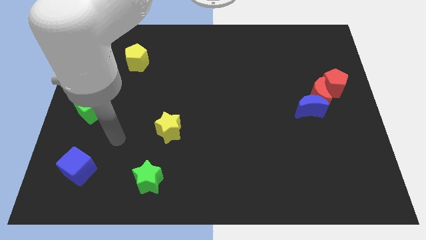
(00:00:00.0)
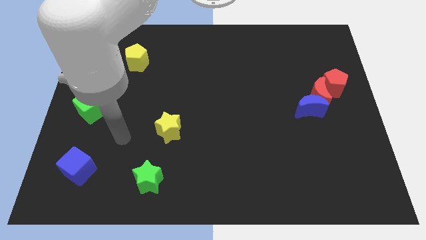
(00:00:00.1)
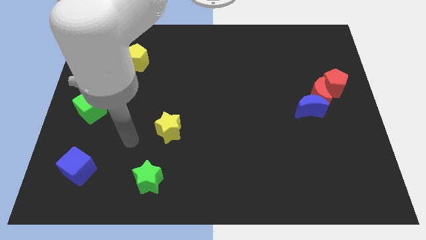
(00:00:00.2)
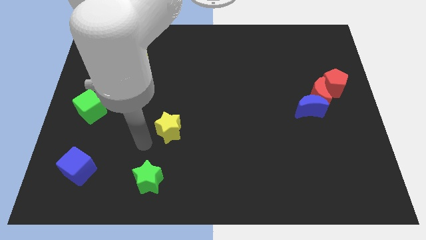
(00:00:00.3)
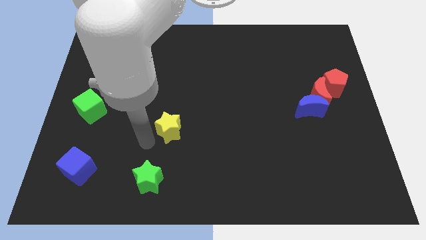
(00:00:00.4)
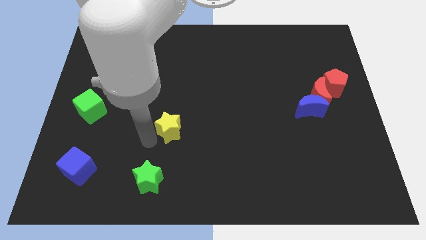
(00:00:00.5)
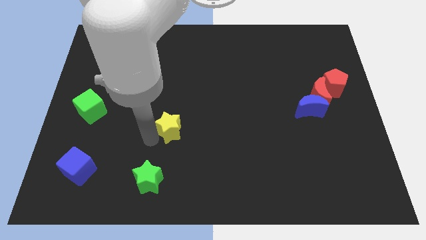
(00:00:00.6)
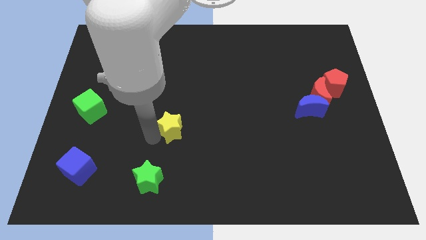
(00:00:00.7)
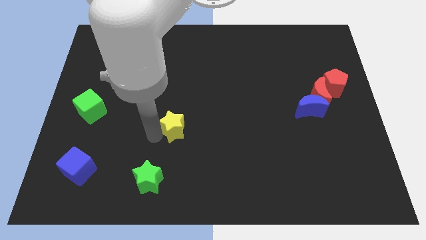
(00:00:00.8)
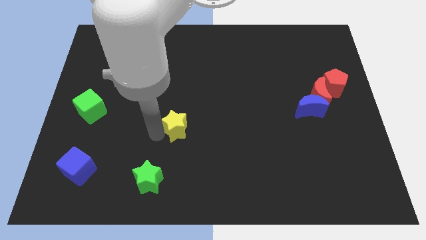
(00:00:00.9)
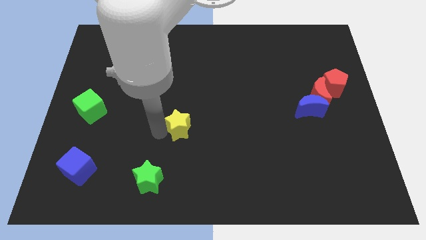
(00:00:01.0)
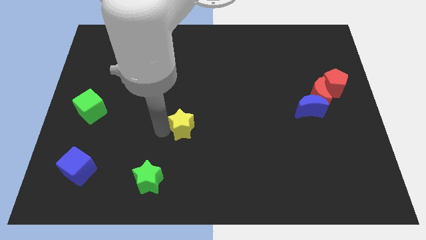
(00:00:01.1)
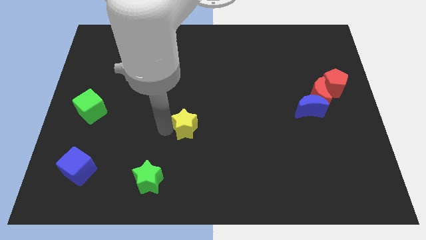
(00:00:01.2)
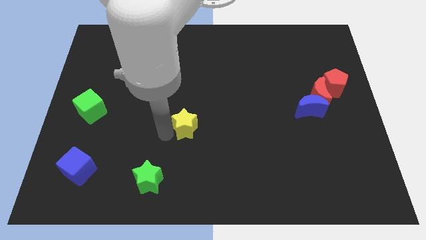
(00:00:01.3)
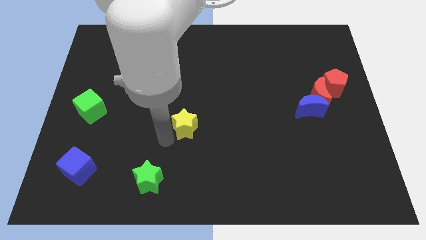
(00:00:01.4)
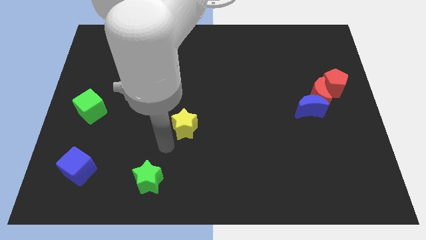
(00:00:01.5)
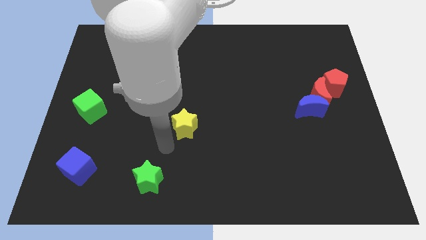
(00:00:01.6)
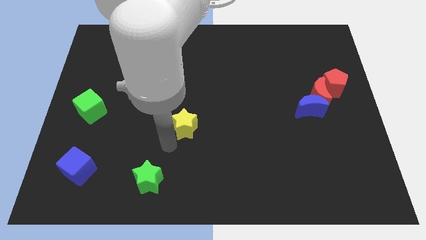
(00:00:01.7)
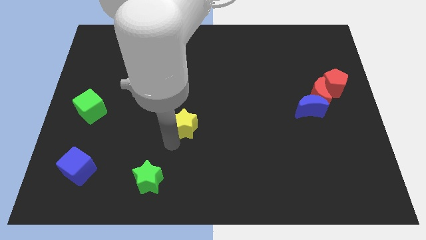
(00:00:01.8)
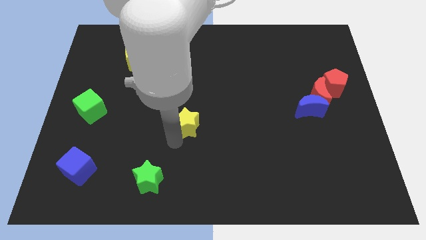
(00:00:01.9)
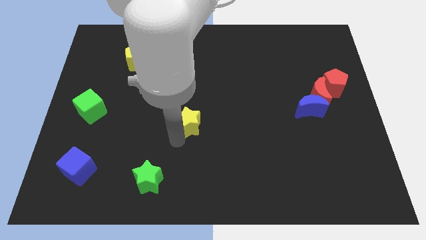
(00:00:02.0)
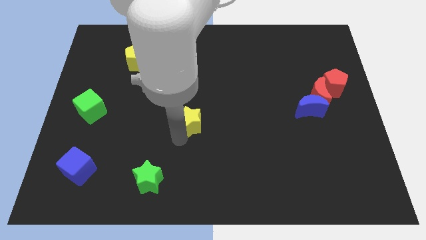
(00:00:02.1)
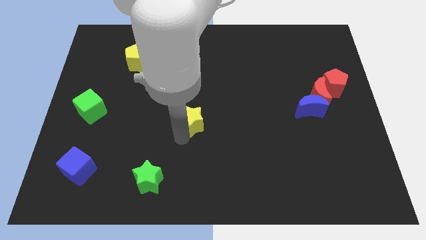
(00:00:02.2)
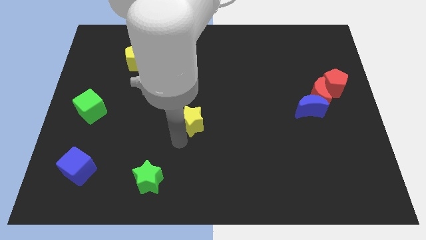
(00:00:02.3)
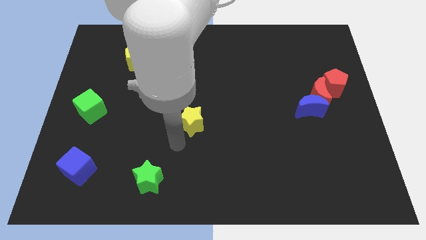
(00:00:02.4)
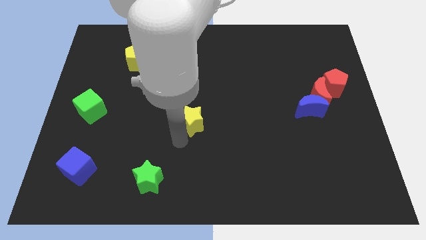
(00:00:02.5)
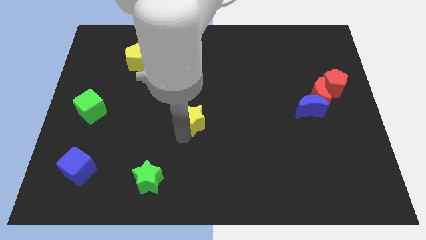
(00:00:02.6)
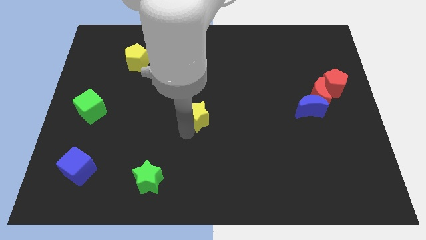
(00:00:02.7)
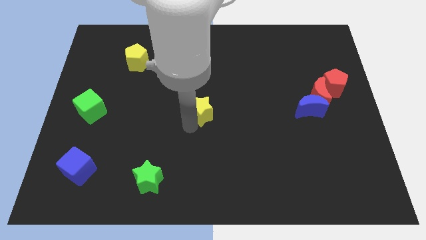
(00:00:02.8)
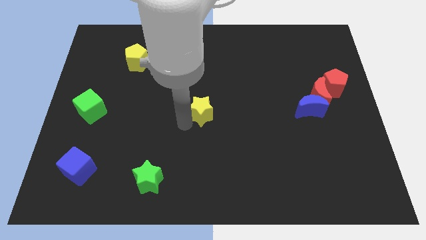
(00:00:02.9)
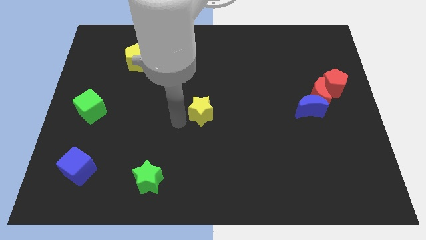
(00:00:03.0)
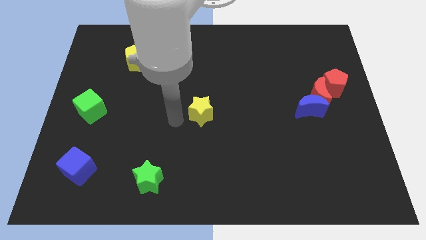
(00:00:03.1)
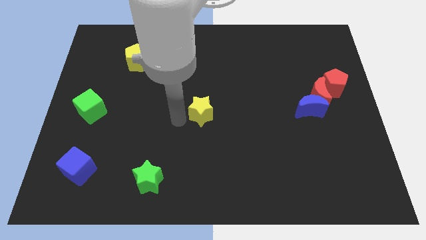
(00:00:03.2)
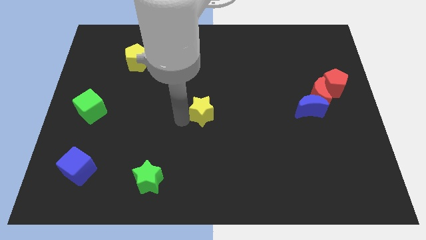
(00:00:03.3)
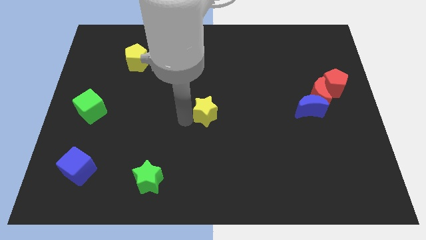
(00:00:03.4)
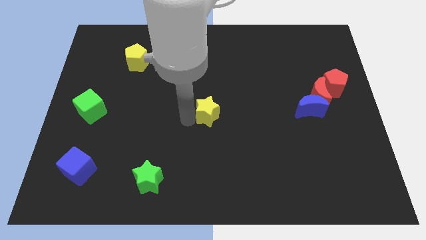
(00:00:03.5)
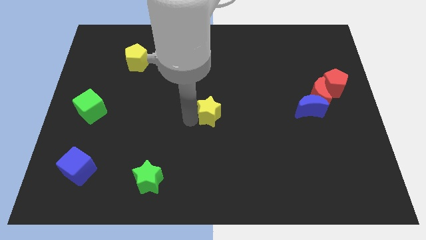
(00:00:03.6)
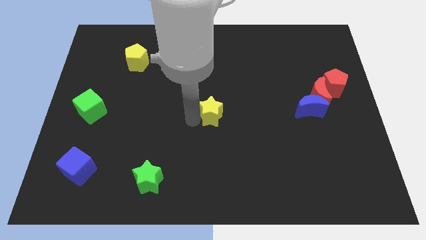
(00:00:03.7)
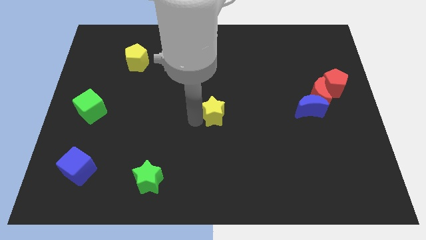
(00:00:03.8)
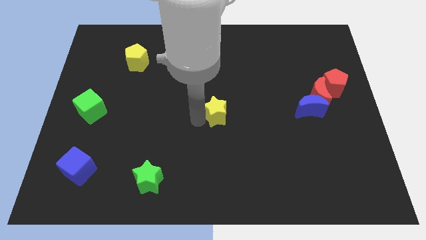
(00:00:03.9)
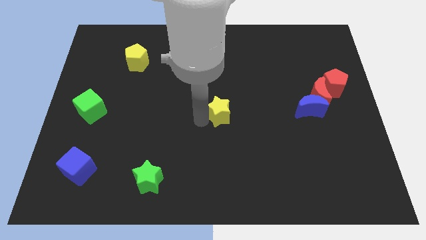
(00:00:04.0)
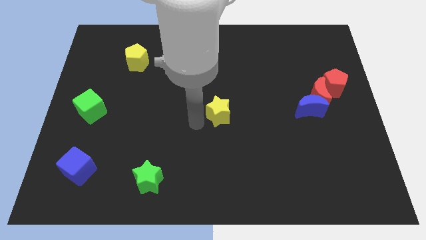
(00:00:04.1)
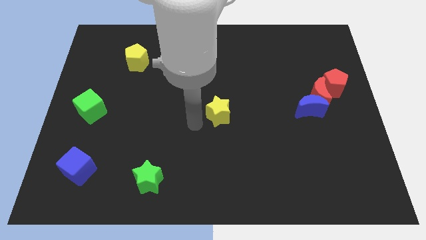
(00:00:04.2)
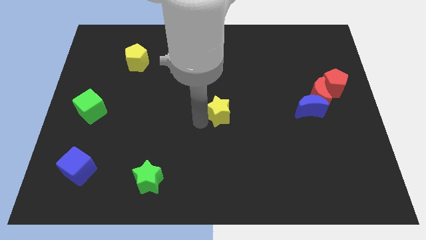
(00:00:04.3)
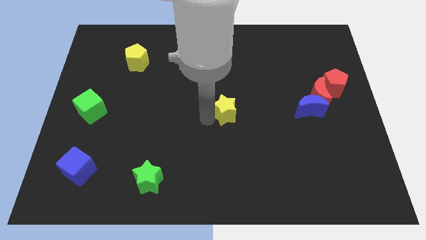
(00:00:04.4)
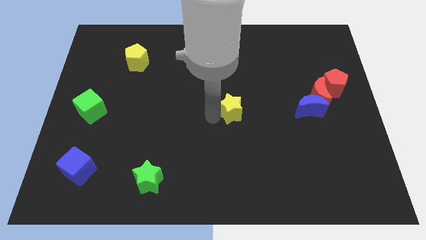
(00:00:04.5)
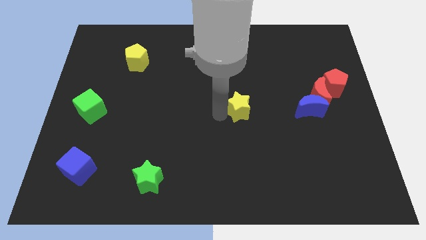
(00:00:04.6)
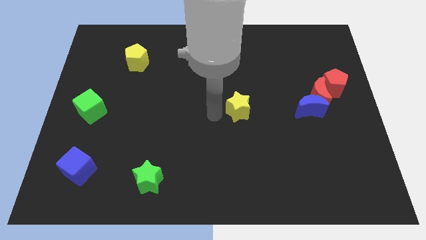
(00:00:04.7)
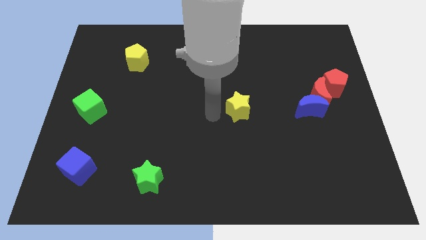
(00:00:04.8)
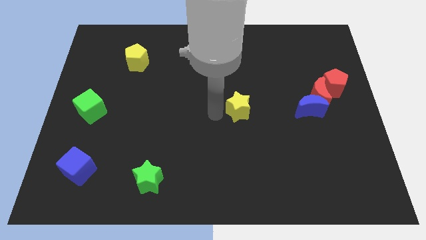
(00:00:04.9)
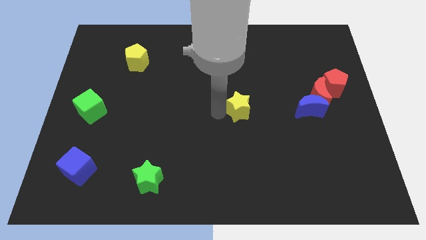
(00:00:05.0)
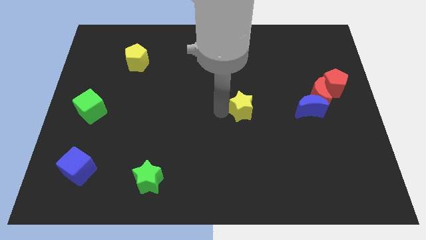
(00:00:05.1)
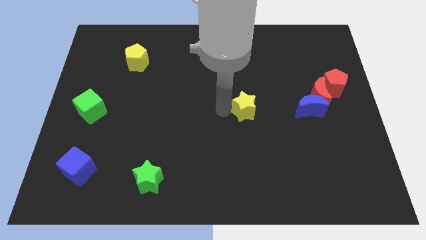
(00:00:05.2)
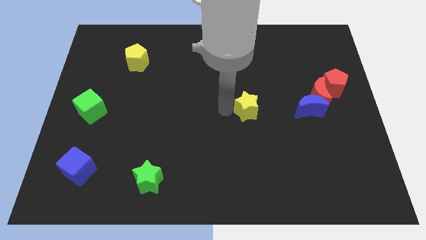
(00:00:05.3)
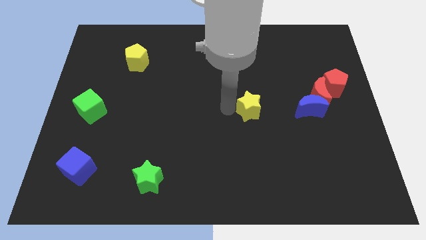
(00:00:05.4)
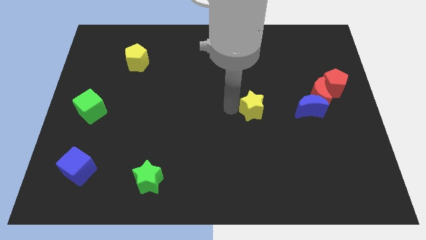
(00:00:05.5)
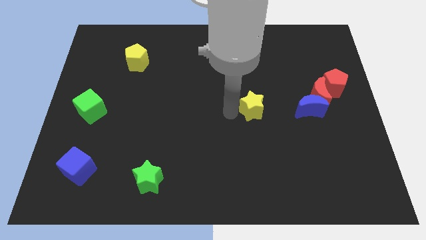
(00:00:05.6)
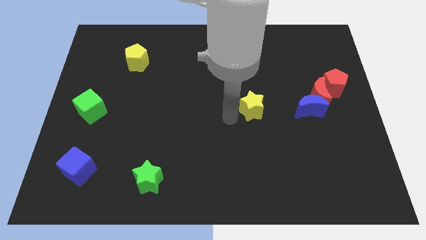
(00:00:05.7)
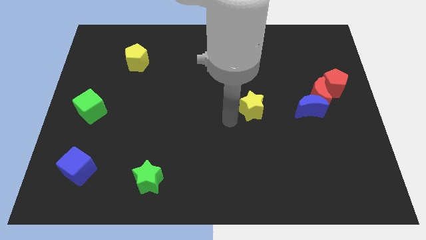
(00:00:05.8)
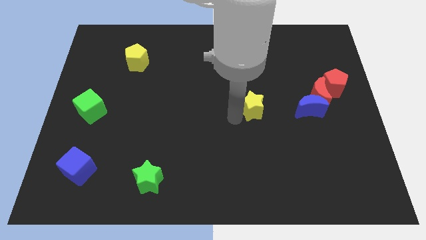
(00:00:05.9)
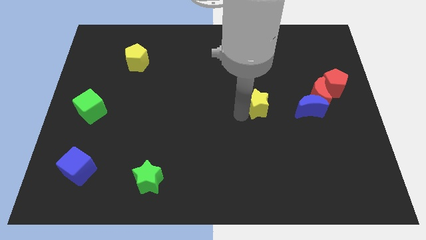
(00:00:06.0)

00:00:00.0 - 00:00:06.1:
move the yellow star just left of the red moon
